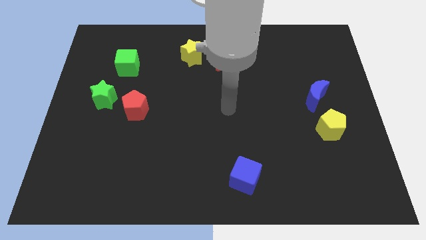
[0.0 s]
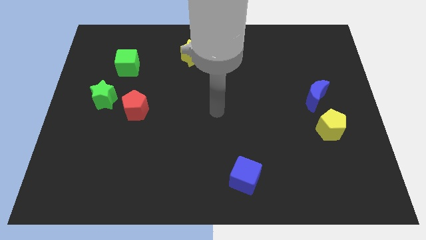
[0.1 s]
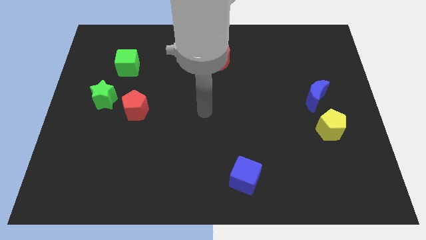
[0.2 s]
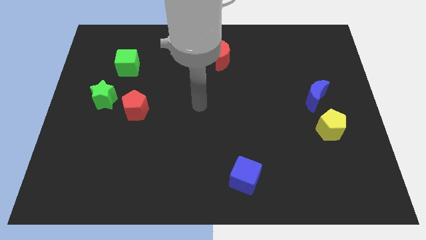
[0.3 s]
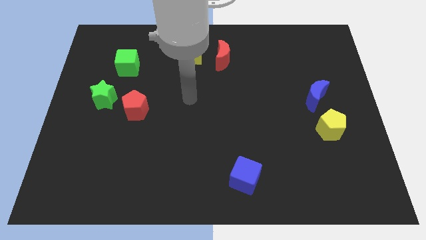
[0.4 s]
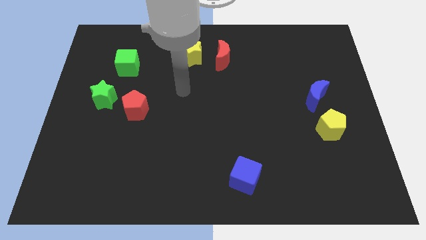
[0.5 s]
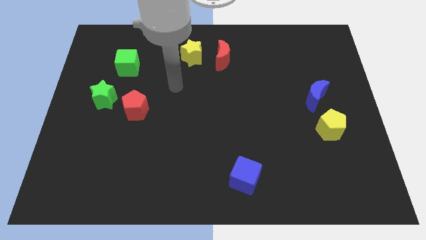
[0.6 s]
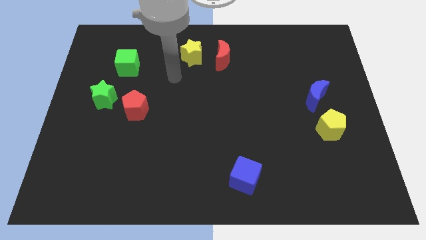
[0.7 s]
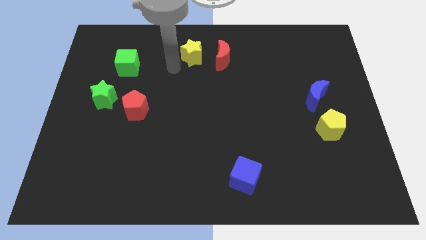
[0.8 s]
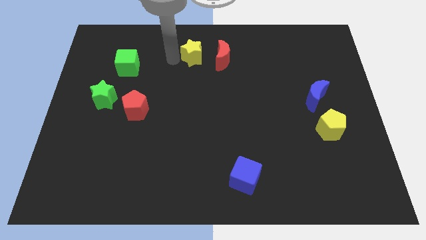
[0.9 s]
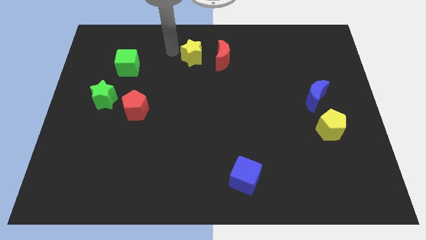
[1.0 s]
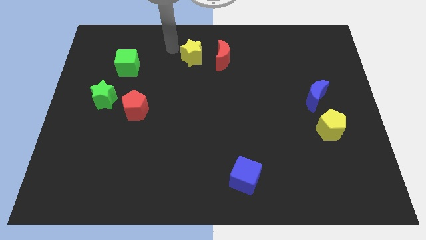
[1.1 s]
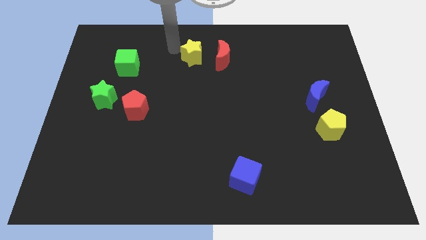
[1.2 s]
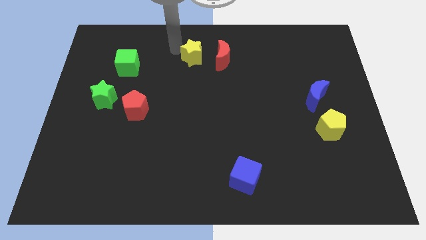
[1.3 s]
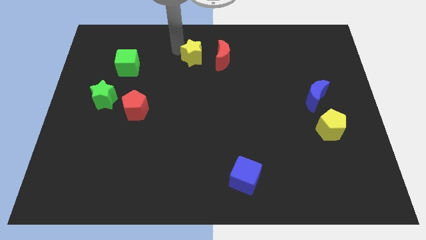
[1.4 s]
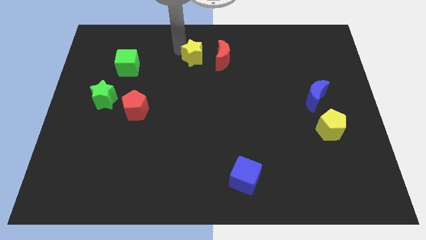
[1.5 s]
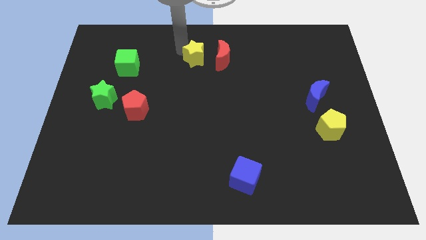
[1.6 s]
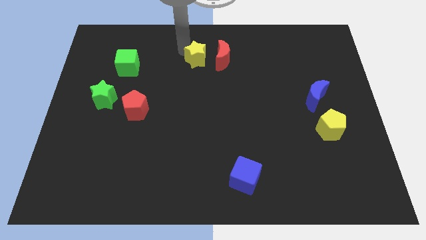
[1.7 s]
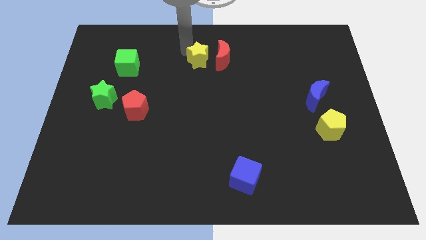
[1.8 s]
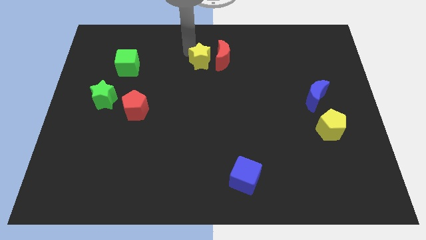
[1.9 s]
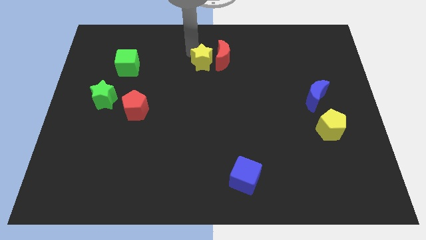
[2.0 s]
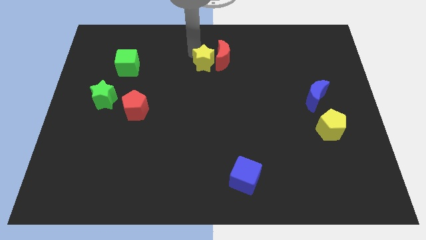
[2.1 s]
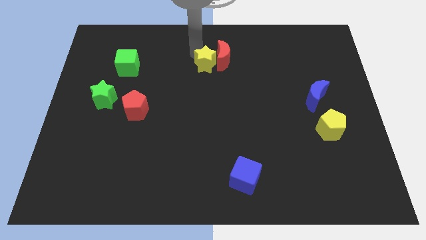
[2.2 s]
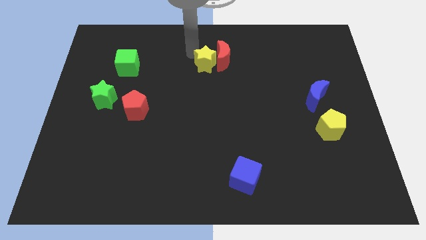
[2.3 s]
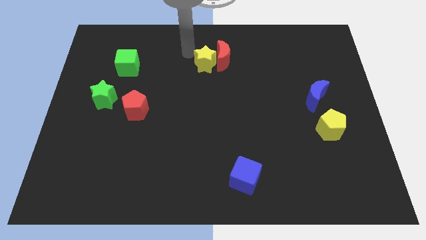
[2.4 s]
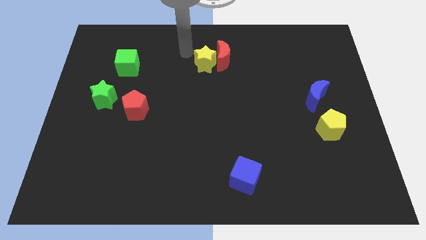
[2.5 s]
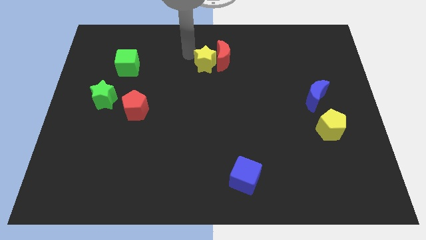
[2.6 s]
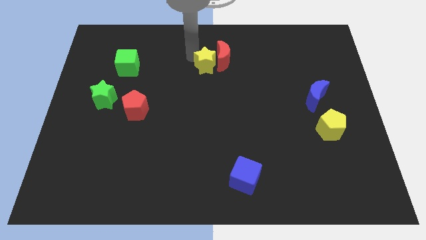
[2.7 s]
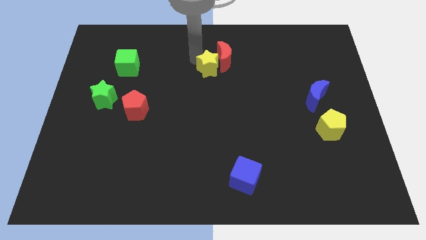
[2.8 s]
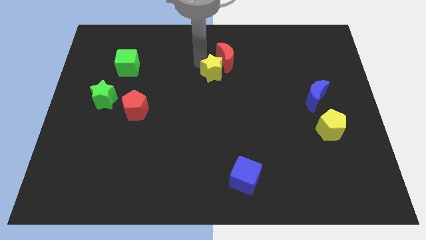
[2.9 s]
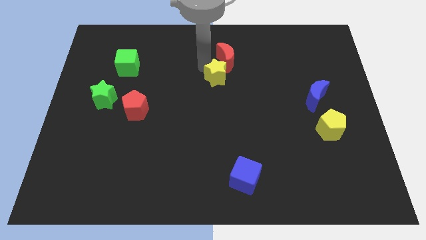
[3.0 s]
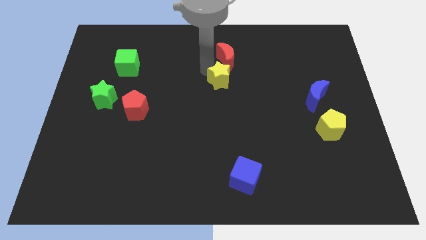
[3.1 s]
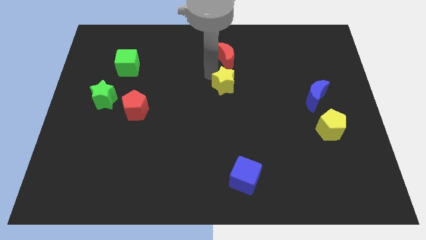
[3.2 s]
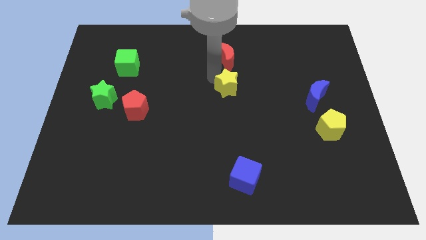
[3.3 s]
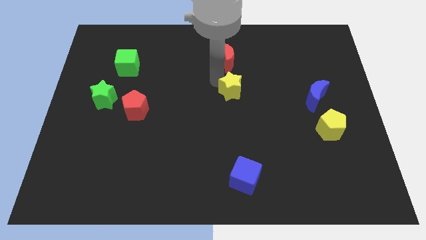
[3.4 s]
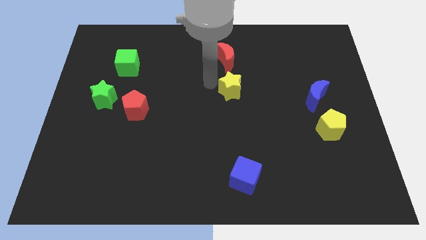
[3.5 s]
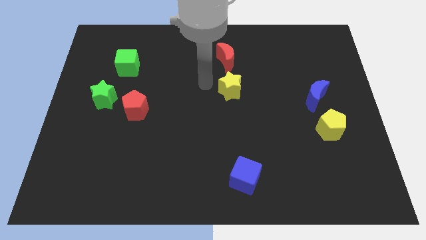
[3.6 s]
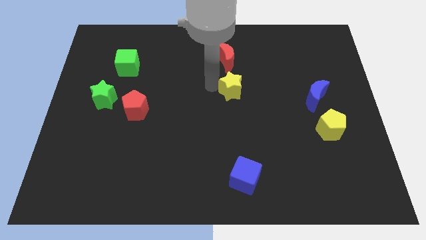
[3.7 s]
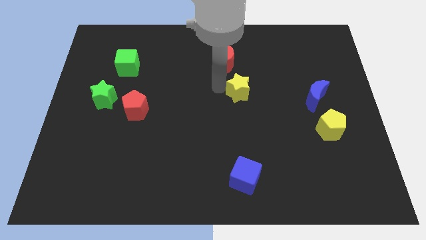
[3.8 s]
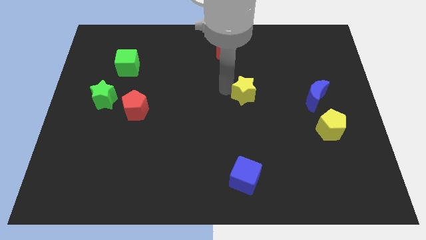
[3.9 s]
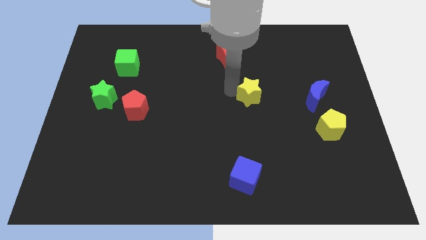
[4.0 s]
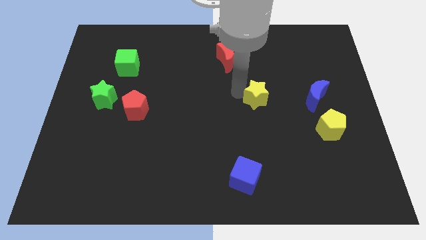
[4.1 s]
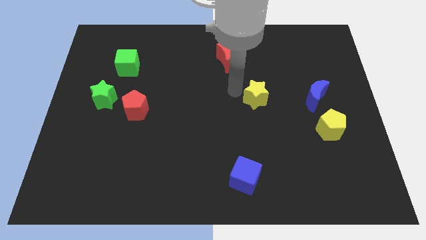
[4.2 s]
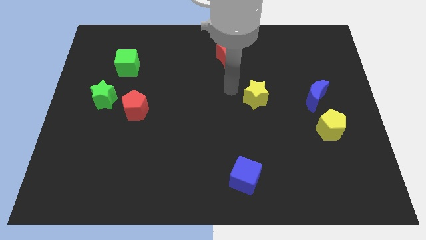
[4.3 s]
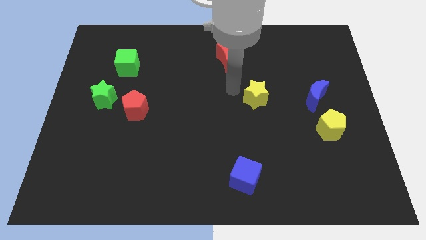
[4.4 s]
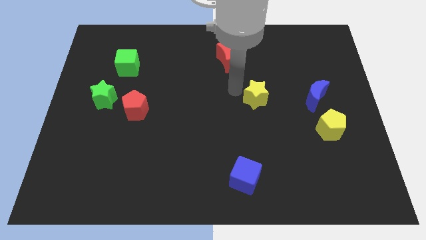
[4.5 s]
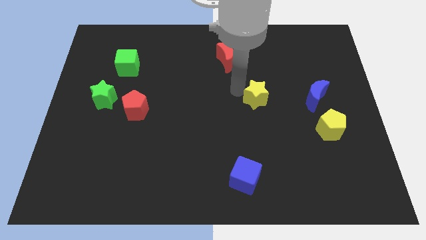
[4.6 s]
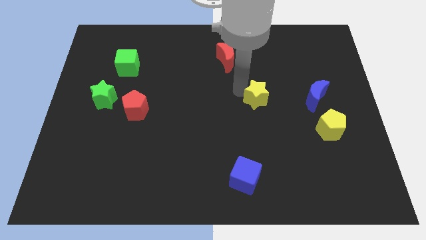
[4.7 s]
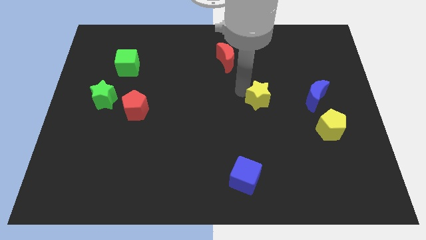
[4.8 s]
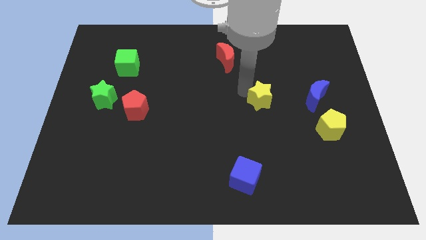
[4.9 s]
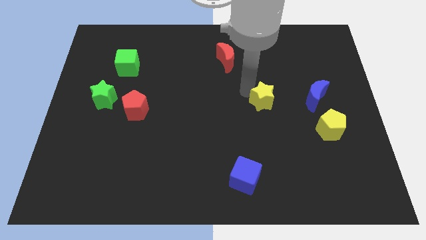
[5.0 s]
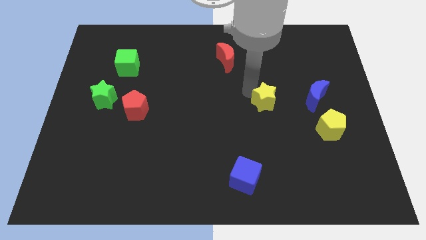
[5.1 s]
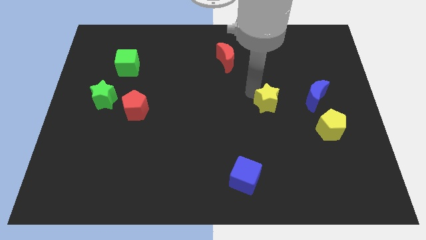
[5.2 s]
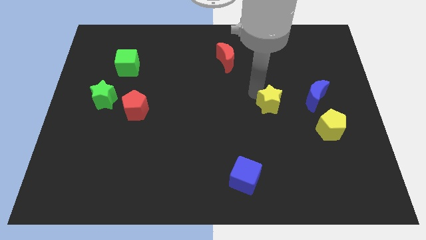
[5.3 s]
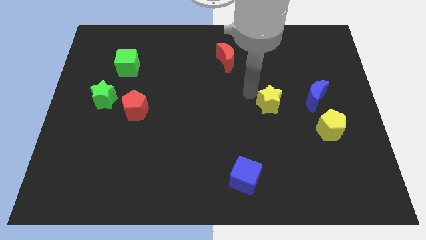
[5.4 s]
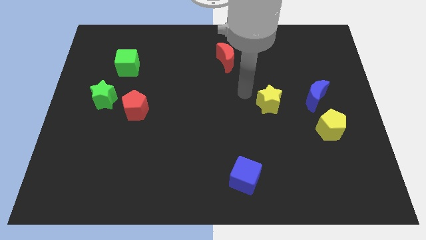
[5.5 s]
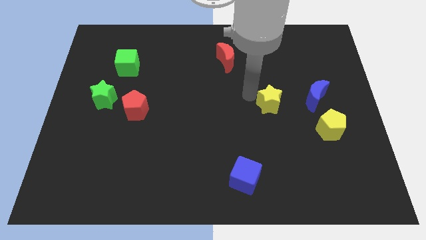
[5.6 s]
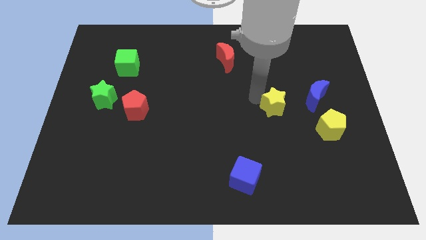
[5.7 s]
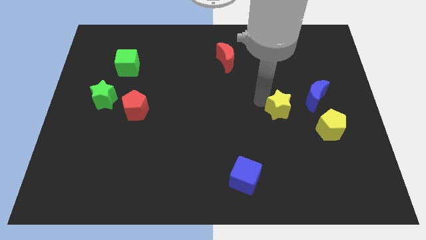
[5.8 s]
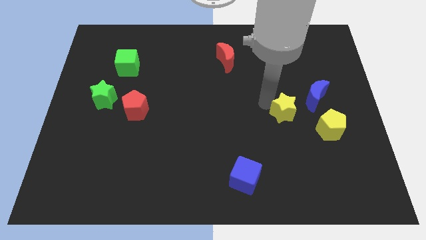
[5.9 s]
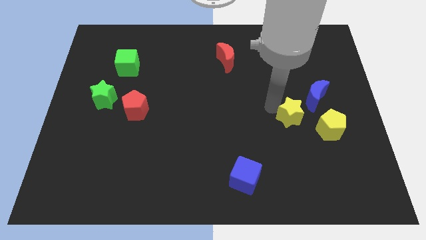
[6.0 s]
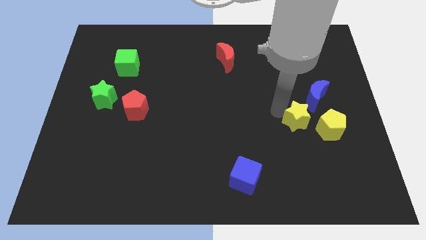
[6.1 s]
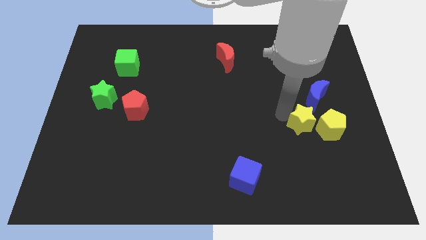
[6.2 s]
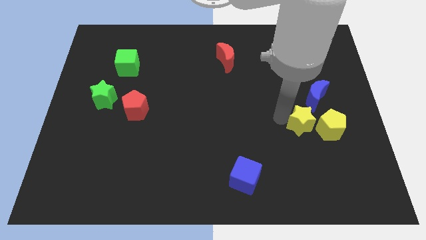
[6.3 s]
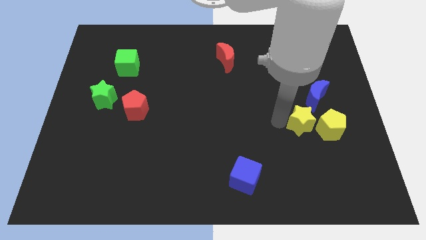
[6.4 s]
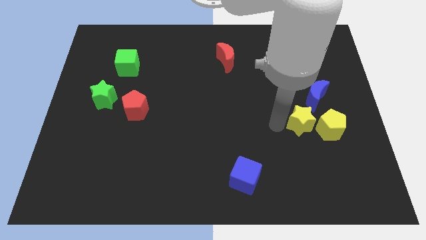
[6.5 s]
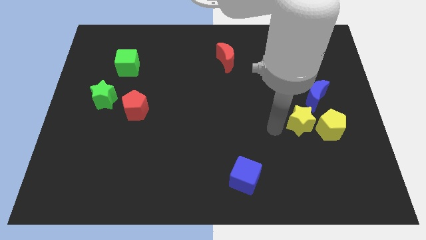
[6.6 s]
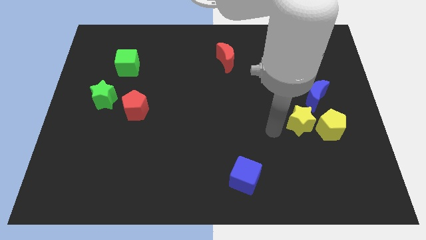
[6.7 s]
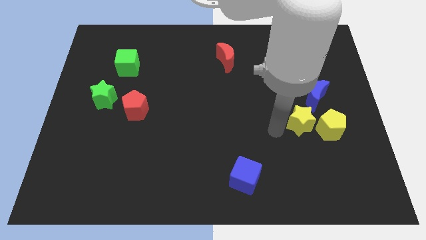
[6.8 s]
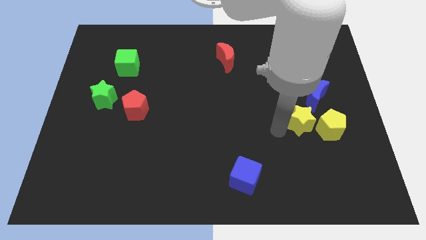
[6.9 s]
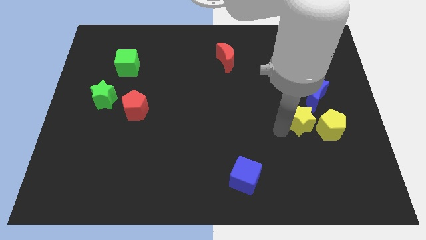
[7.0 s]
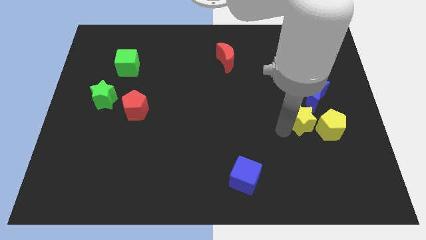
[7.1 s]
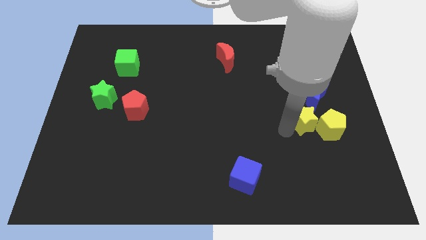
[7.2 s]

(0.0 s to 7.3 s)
move the yellow star to the yellow pentagon
